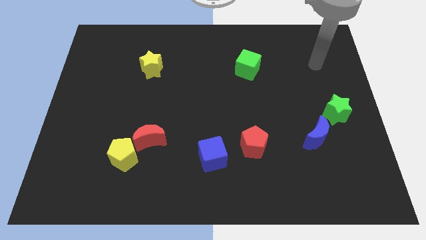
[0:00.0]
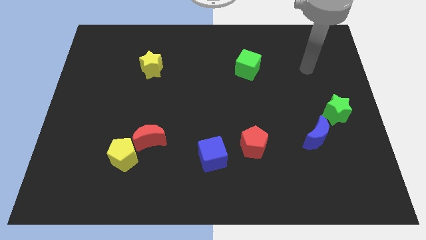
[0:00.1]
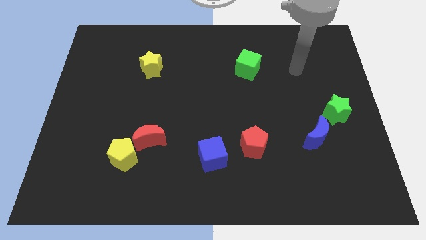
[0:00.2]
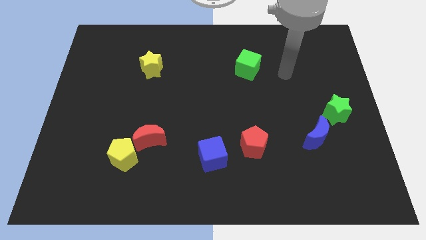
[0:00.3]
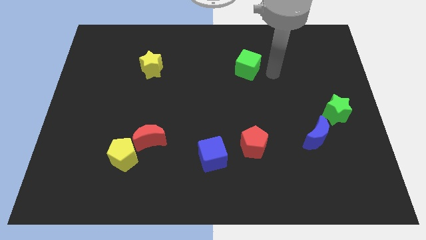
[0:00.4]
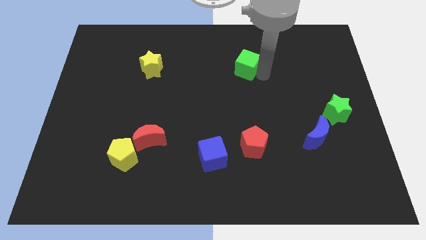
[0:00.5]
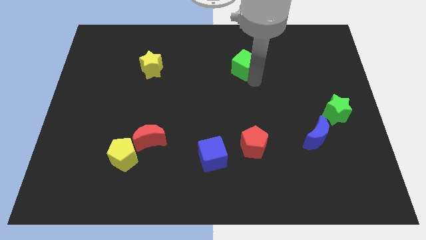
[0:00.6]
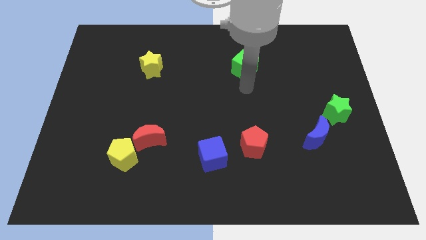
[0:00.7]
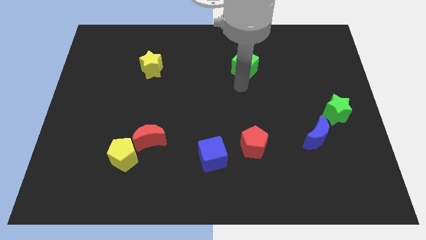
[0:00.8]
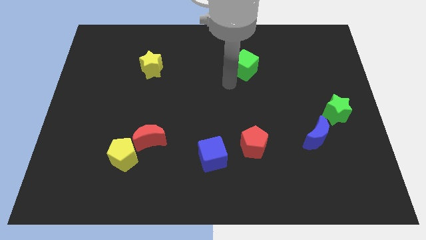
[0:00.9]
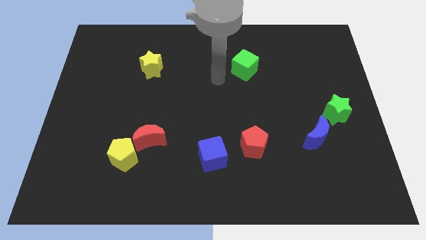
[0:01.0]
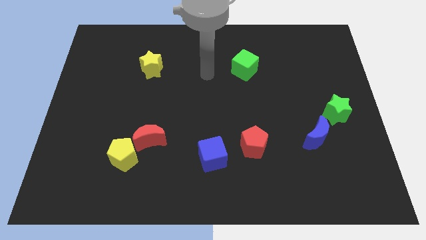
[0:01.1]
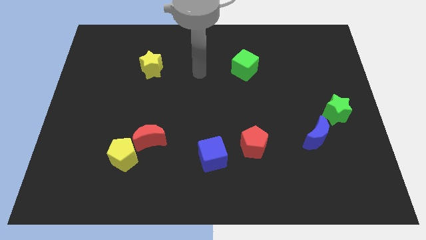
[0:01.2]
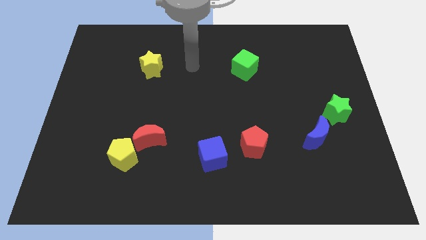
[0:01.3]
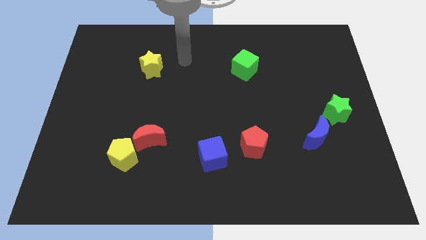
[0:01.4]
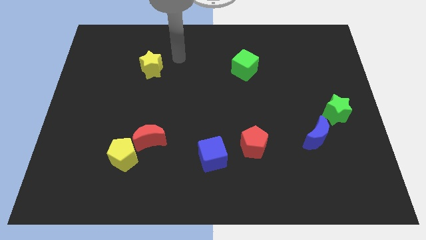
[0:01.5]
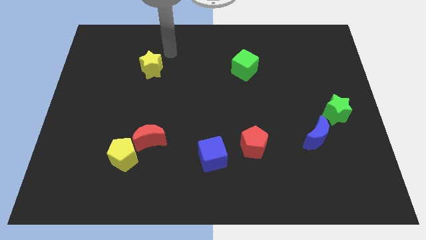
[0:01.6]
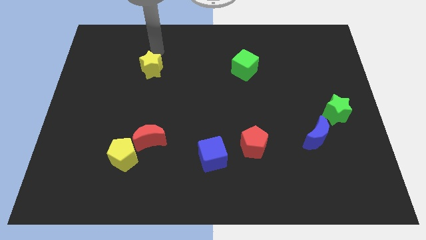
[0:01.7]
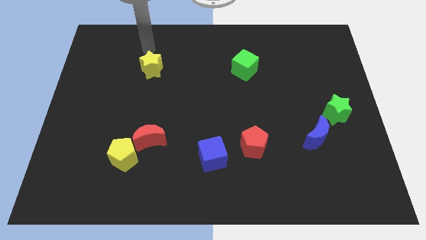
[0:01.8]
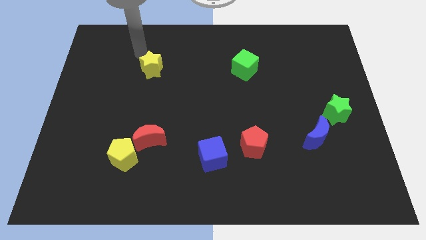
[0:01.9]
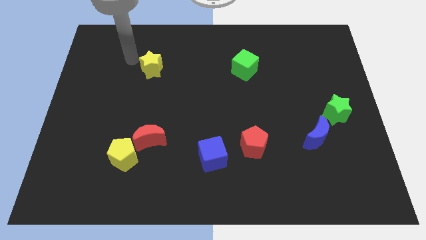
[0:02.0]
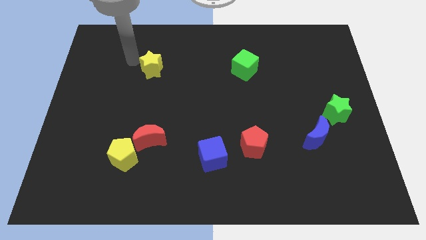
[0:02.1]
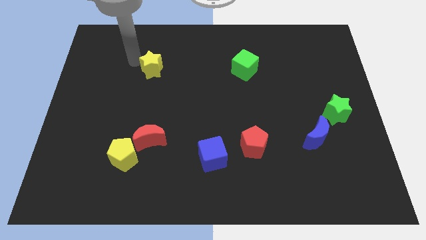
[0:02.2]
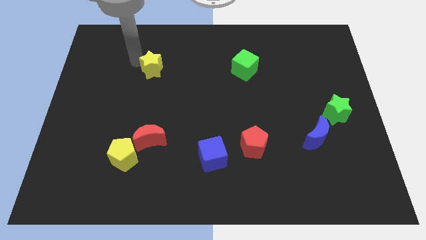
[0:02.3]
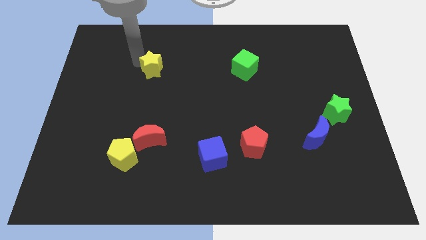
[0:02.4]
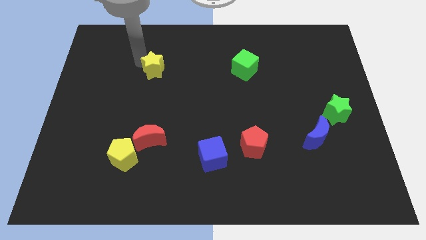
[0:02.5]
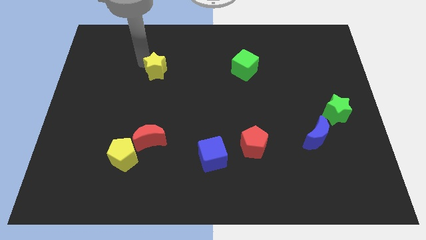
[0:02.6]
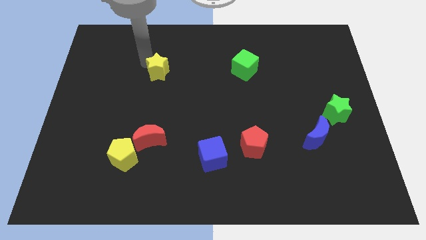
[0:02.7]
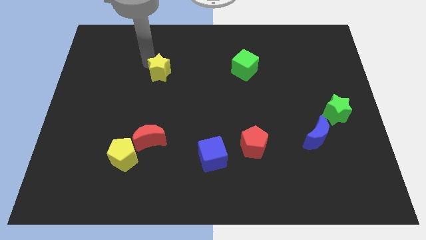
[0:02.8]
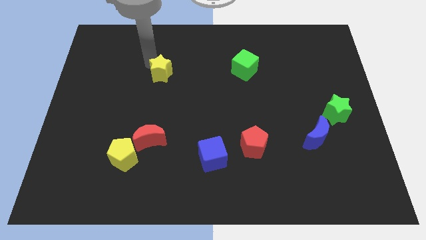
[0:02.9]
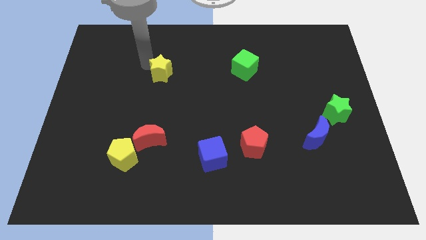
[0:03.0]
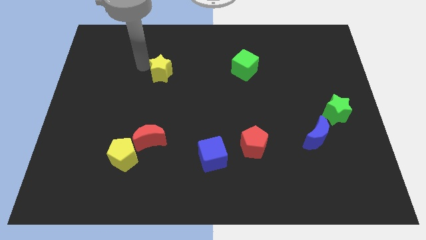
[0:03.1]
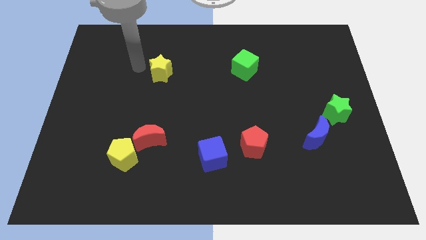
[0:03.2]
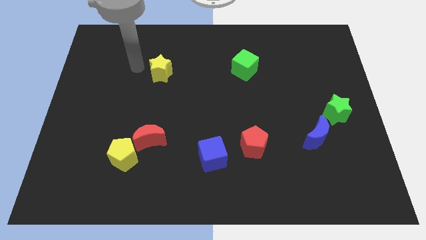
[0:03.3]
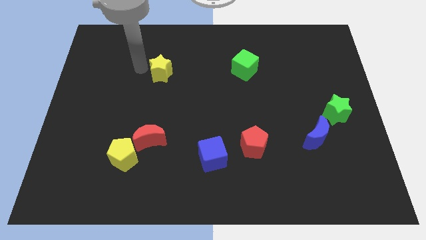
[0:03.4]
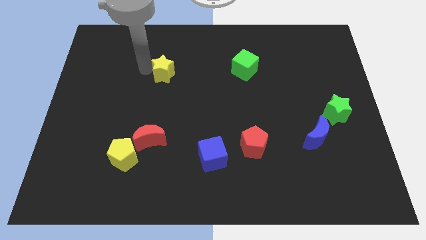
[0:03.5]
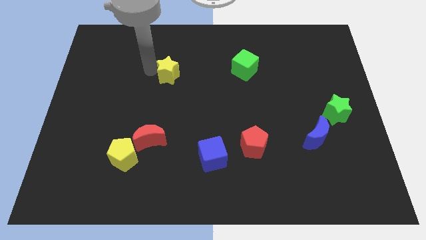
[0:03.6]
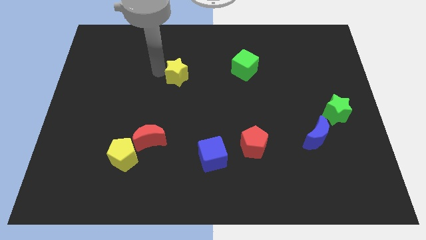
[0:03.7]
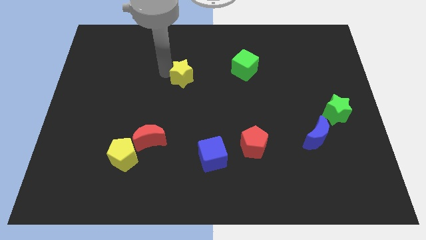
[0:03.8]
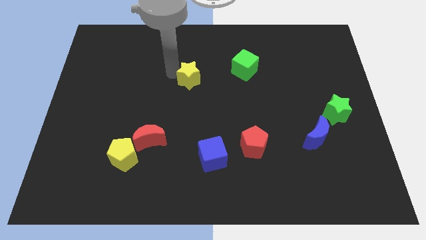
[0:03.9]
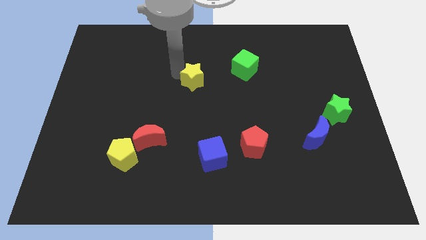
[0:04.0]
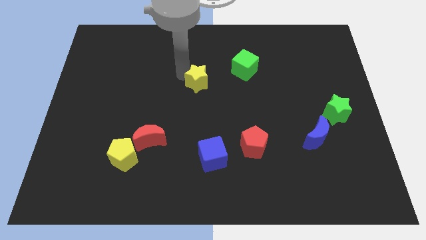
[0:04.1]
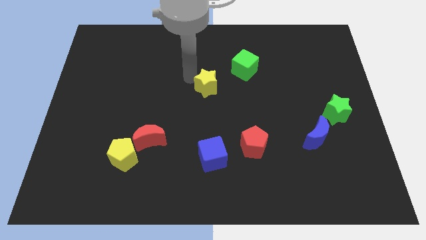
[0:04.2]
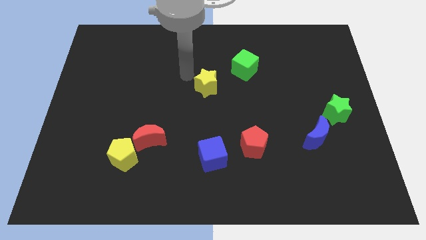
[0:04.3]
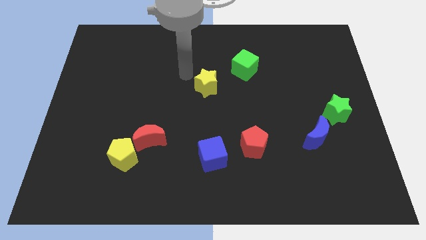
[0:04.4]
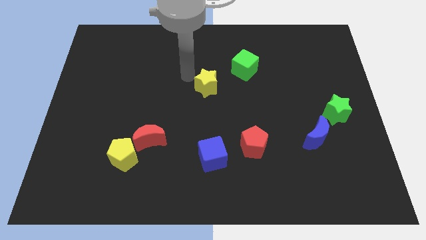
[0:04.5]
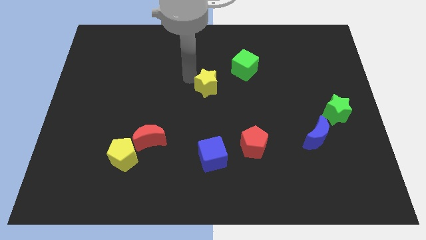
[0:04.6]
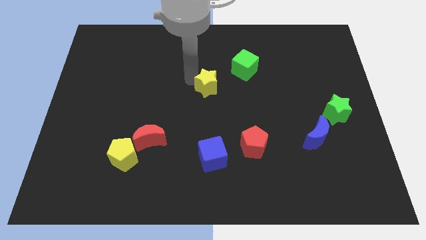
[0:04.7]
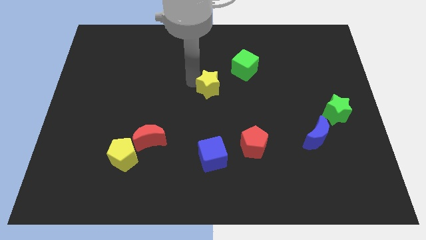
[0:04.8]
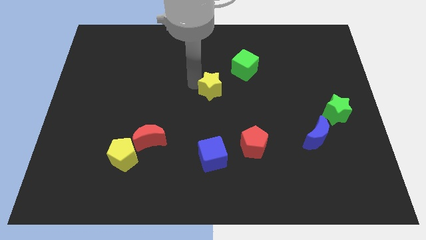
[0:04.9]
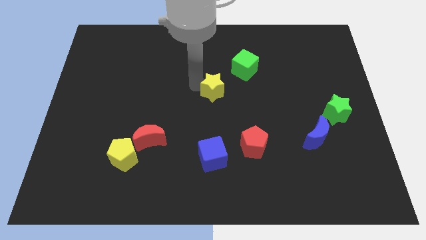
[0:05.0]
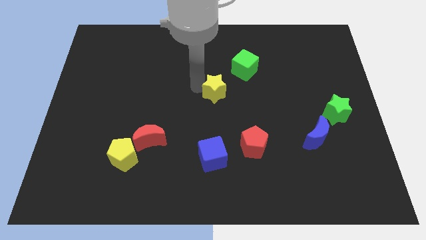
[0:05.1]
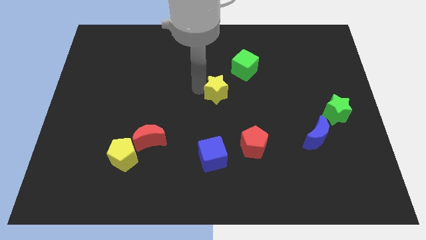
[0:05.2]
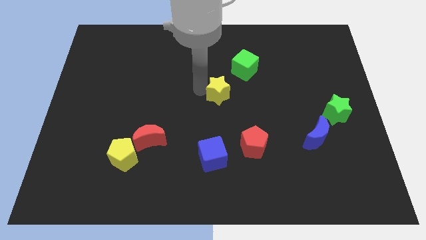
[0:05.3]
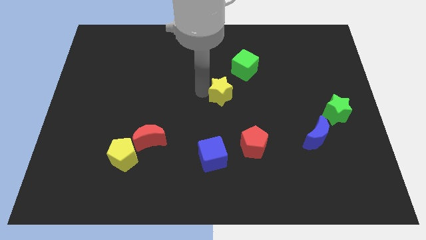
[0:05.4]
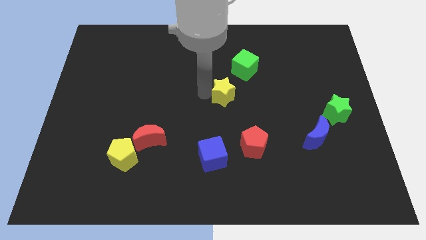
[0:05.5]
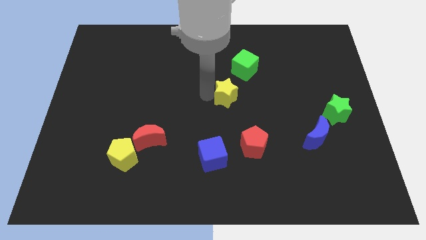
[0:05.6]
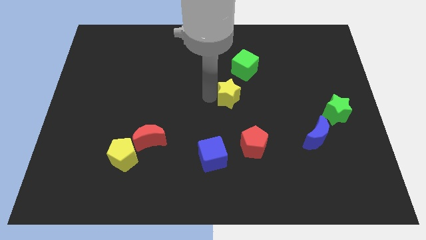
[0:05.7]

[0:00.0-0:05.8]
push the yellow star to the bottom side of the green cube

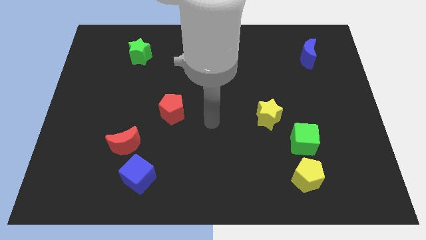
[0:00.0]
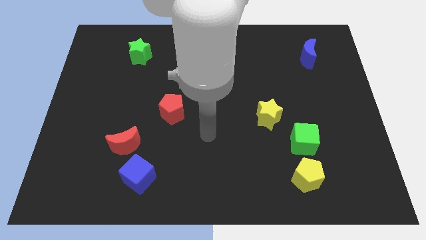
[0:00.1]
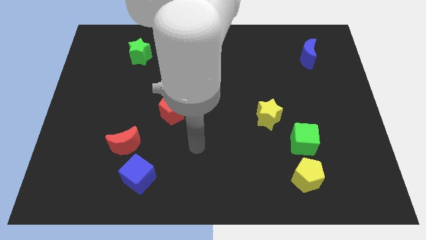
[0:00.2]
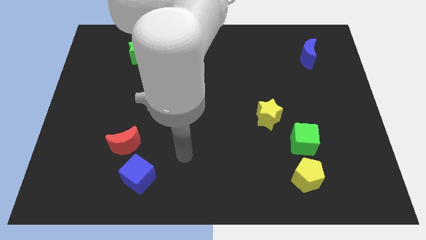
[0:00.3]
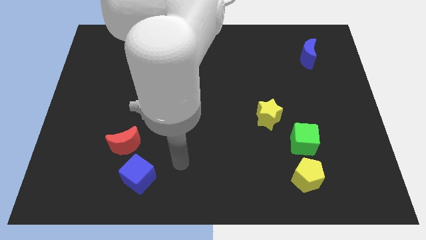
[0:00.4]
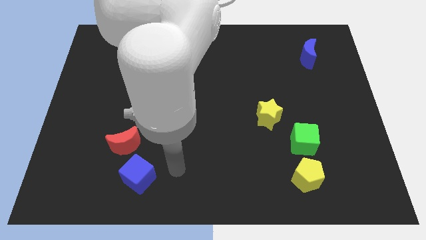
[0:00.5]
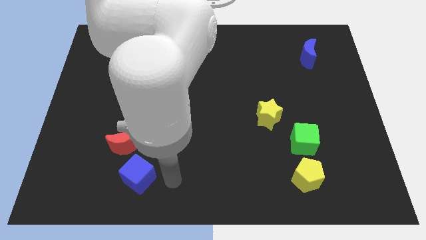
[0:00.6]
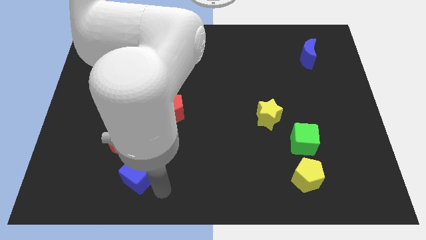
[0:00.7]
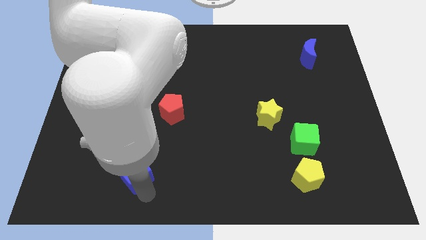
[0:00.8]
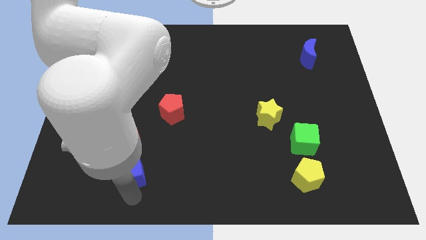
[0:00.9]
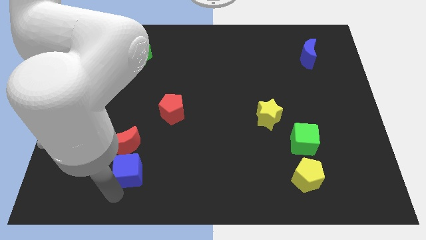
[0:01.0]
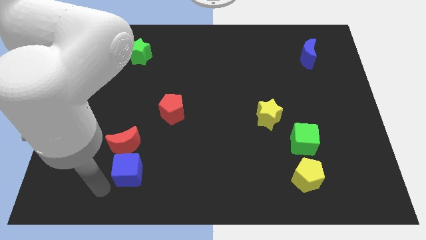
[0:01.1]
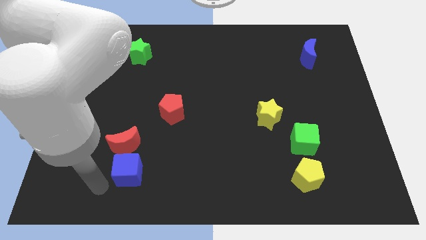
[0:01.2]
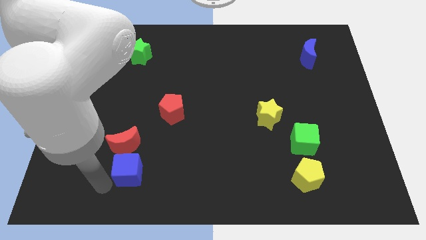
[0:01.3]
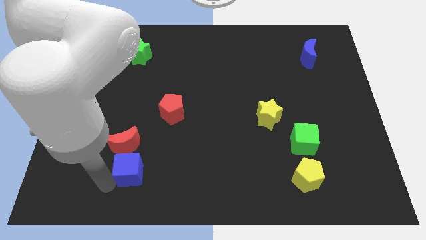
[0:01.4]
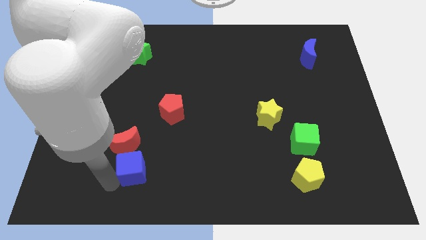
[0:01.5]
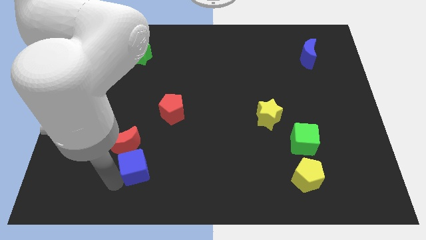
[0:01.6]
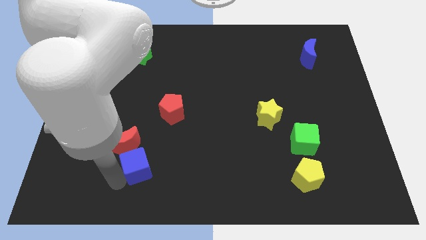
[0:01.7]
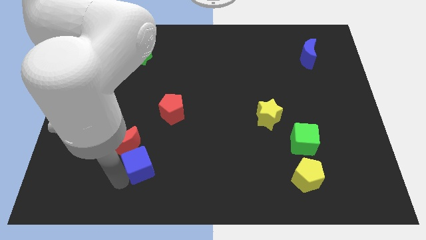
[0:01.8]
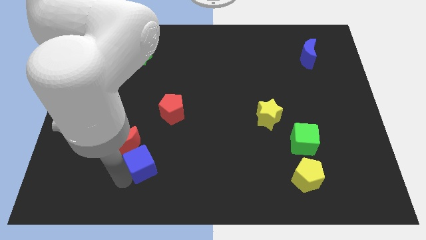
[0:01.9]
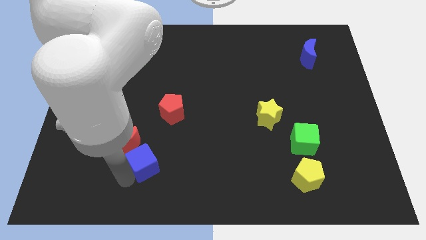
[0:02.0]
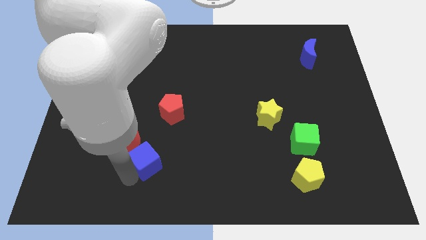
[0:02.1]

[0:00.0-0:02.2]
slide the blue cube to the bottom side of the red pentagon

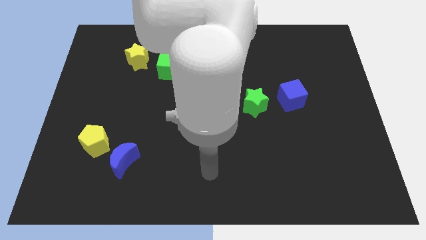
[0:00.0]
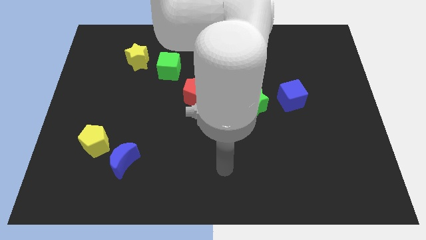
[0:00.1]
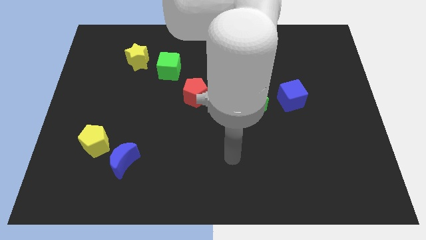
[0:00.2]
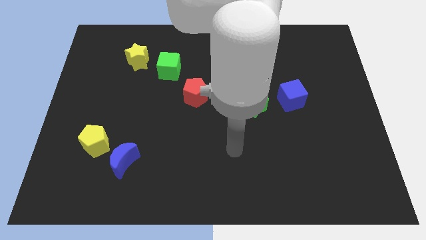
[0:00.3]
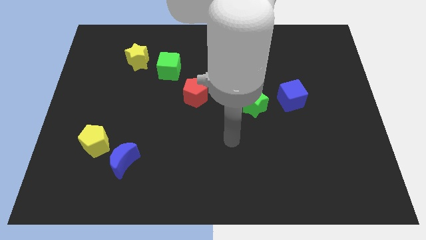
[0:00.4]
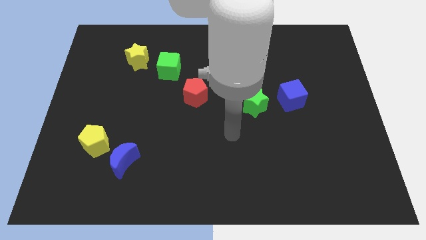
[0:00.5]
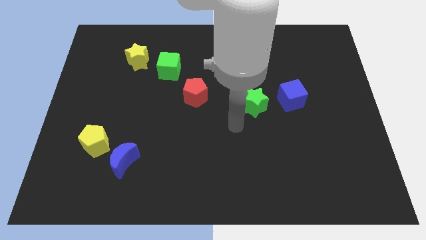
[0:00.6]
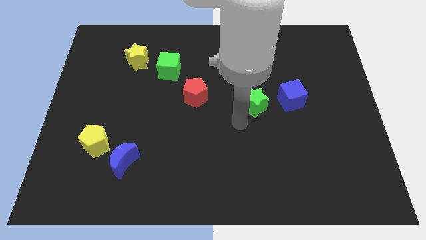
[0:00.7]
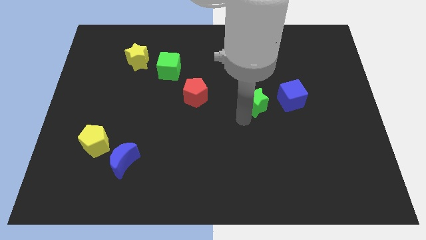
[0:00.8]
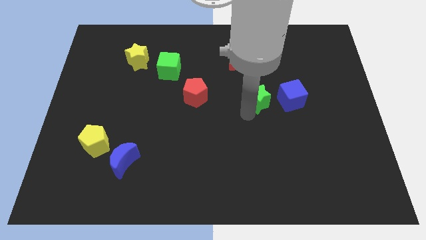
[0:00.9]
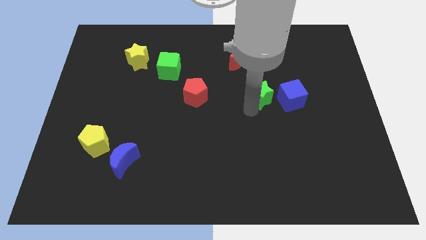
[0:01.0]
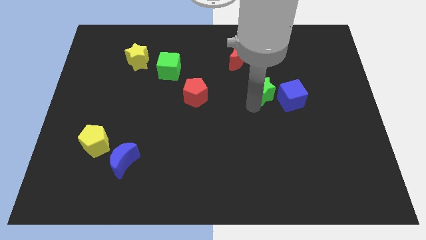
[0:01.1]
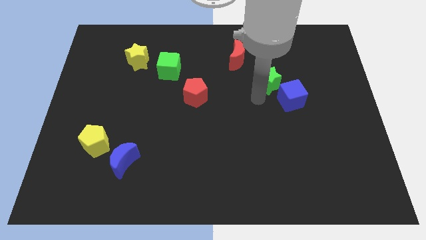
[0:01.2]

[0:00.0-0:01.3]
push the green star above the blue cube
